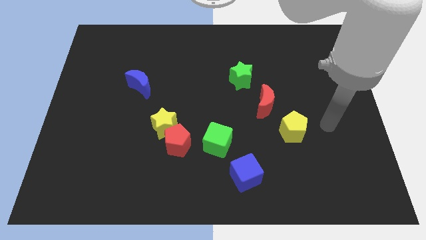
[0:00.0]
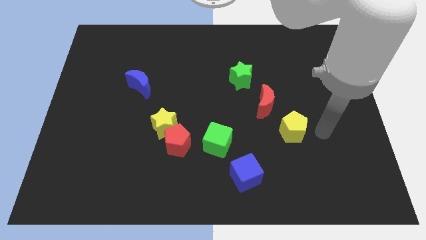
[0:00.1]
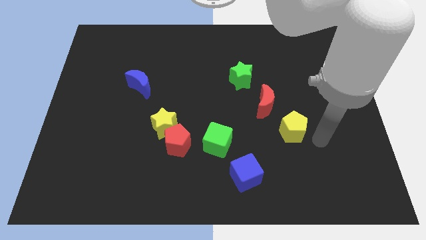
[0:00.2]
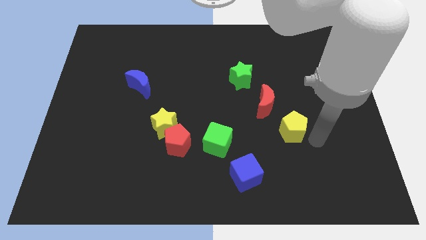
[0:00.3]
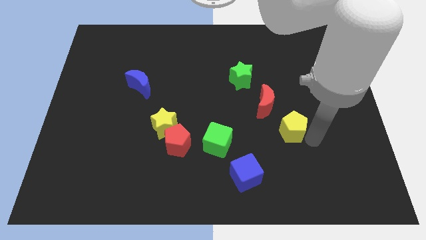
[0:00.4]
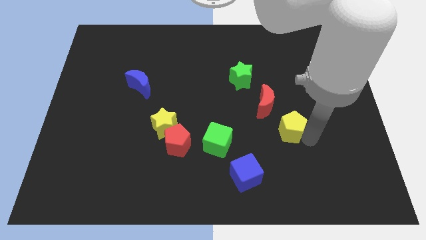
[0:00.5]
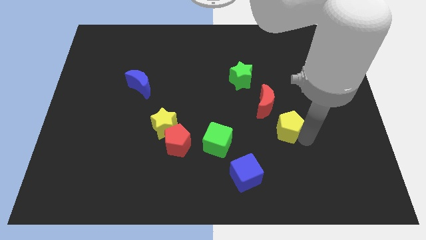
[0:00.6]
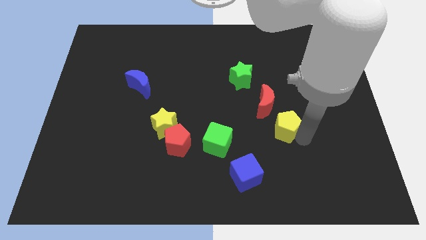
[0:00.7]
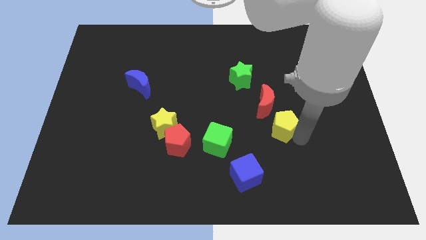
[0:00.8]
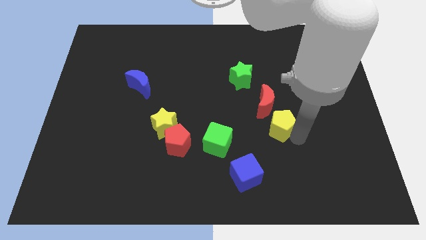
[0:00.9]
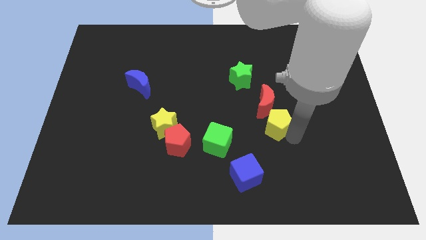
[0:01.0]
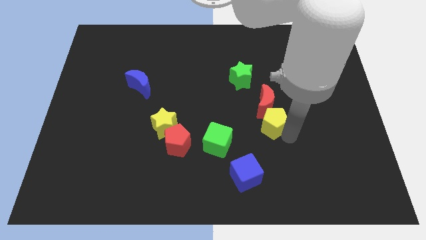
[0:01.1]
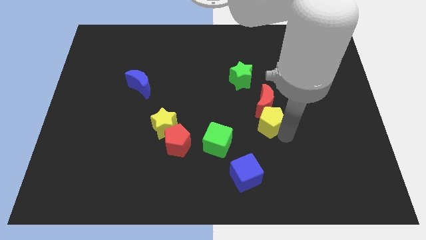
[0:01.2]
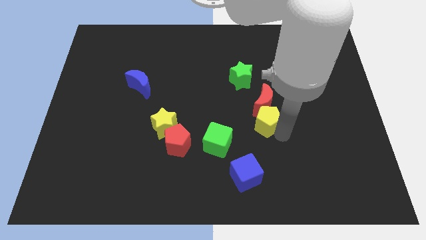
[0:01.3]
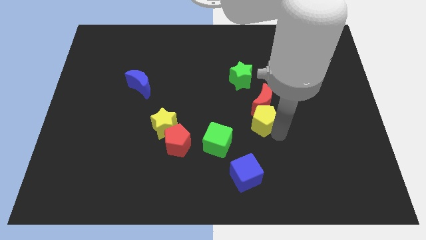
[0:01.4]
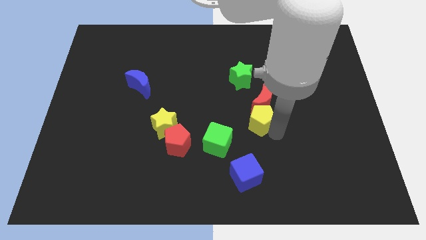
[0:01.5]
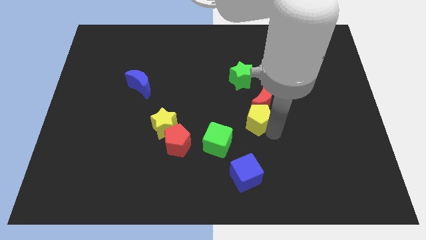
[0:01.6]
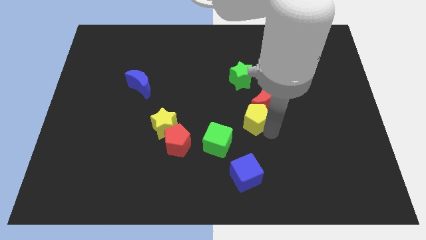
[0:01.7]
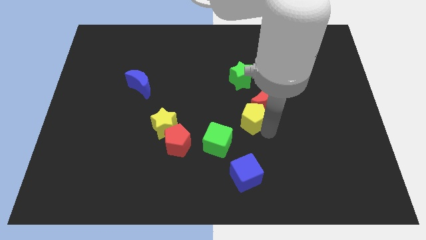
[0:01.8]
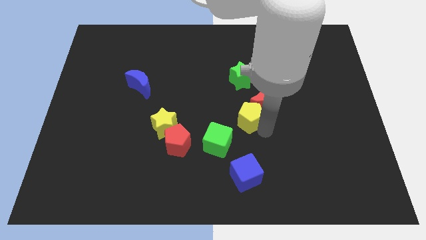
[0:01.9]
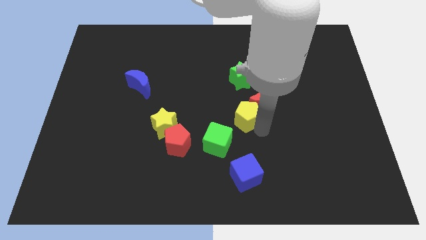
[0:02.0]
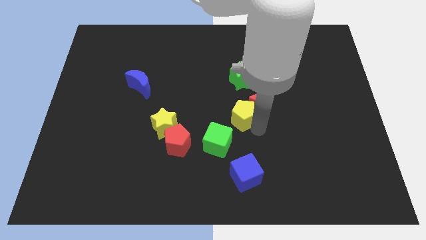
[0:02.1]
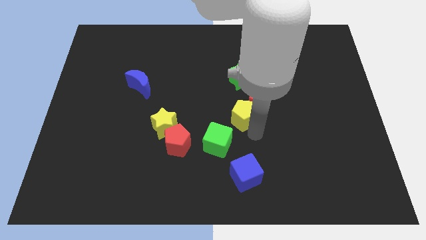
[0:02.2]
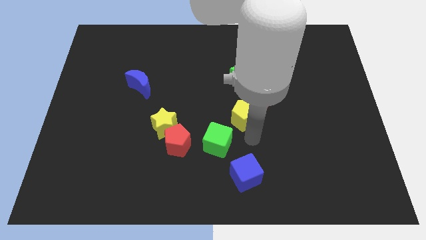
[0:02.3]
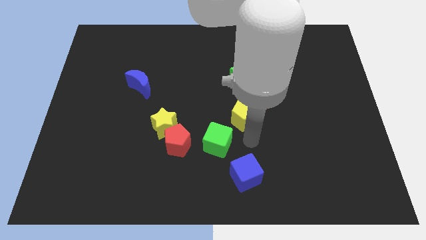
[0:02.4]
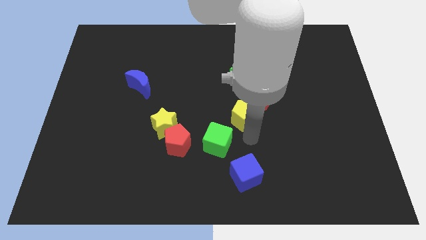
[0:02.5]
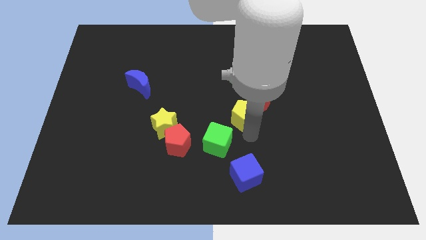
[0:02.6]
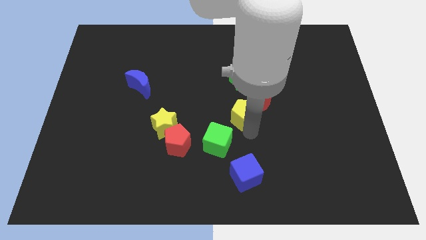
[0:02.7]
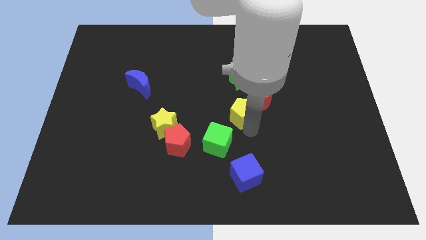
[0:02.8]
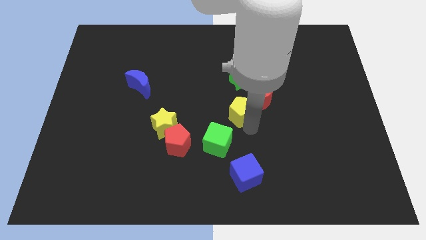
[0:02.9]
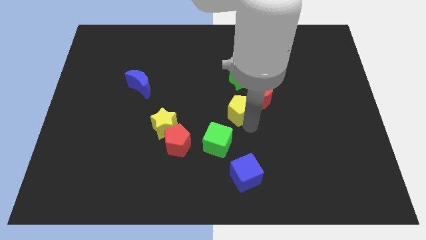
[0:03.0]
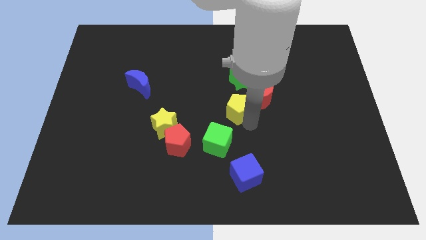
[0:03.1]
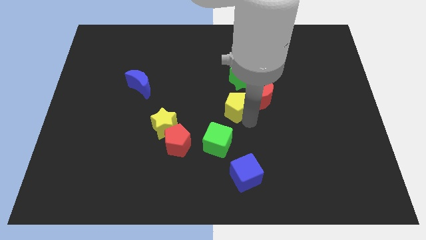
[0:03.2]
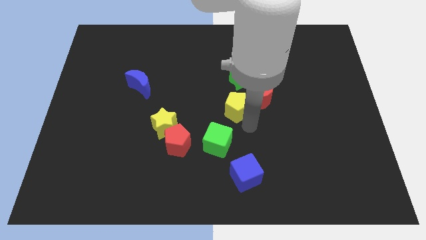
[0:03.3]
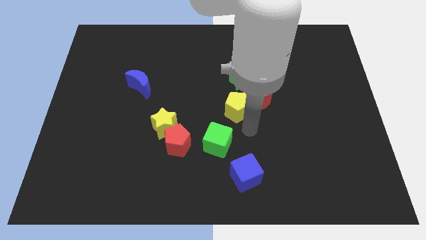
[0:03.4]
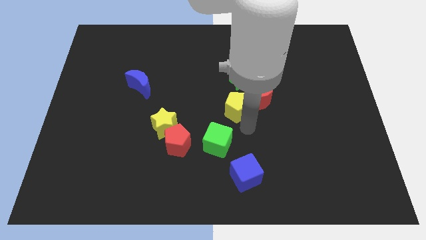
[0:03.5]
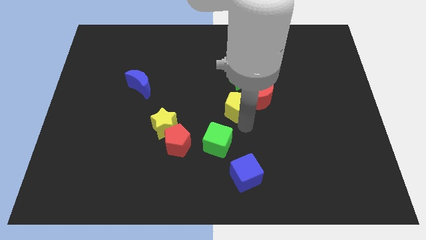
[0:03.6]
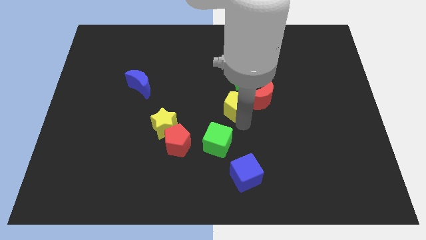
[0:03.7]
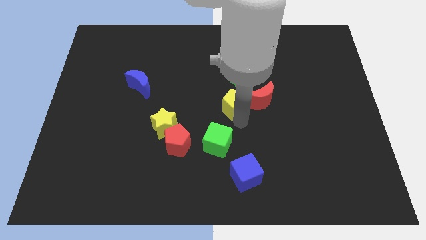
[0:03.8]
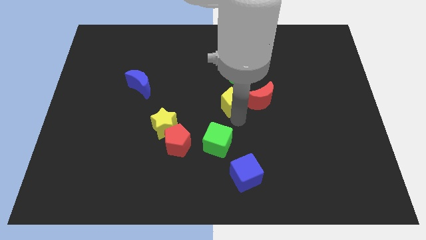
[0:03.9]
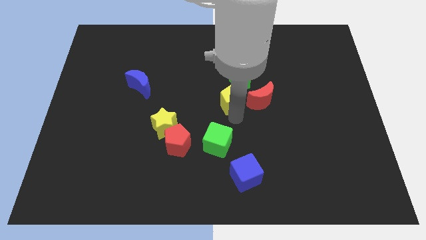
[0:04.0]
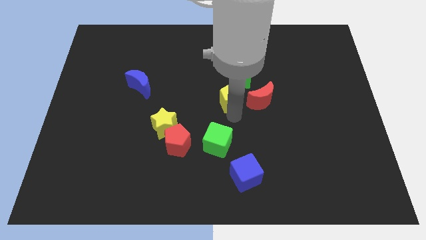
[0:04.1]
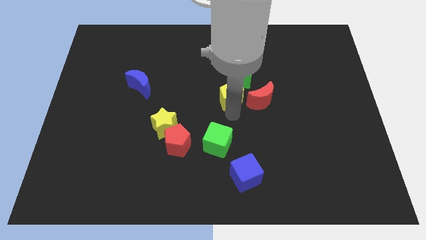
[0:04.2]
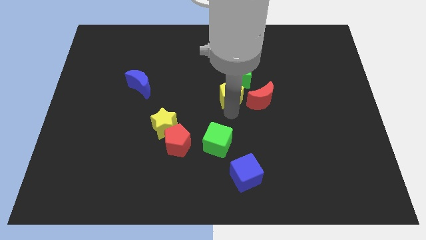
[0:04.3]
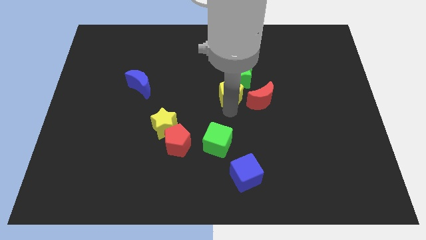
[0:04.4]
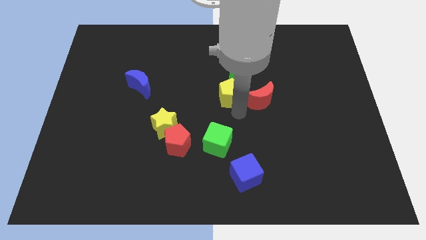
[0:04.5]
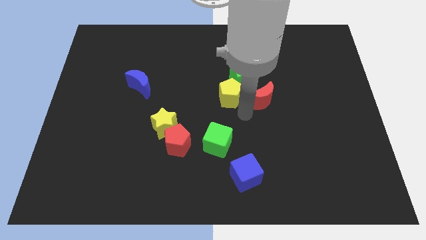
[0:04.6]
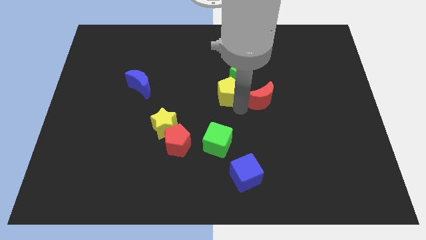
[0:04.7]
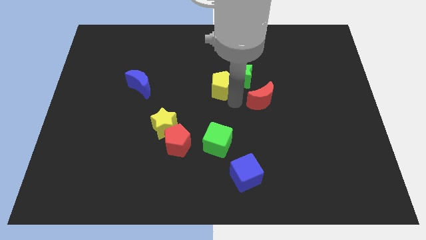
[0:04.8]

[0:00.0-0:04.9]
slide the yellow pentagon up and then to the left

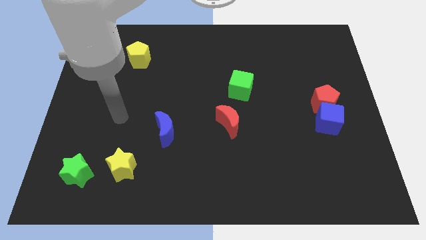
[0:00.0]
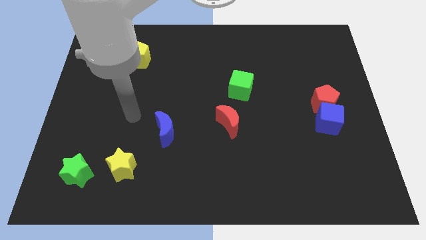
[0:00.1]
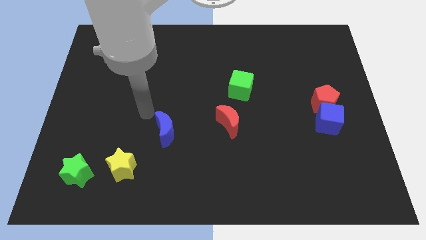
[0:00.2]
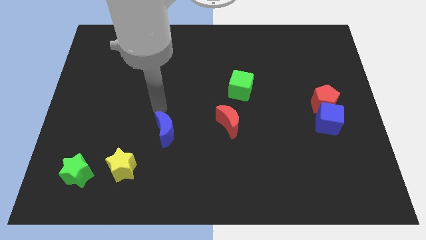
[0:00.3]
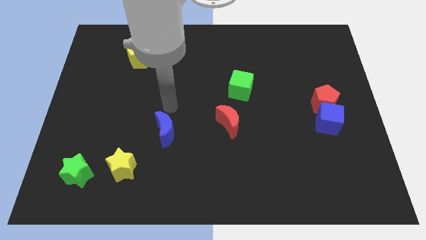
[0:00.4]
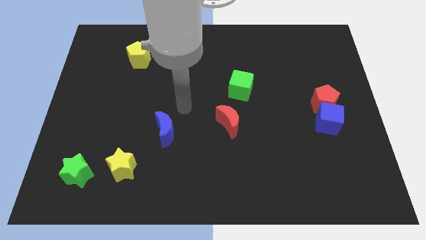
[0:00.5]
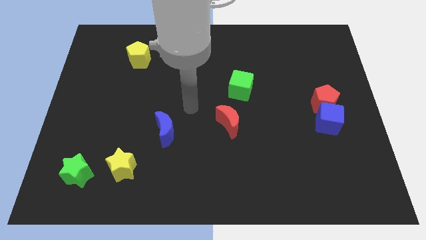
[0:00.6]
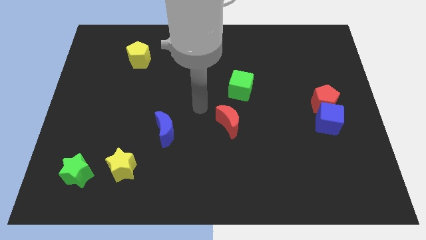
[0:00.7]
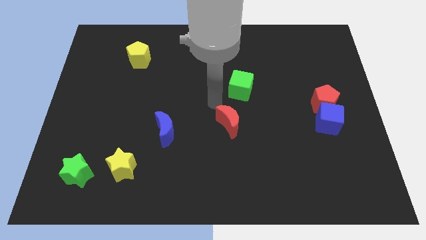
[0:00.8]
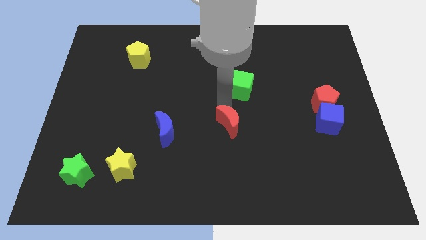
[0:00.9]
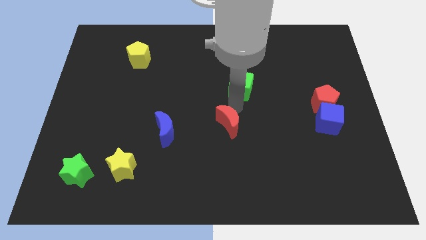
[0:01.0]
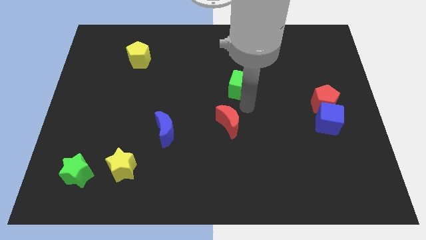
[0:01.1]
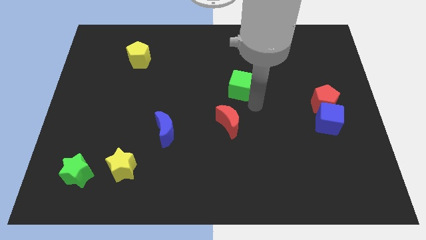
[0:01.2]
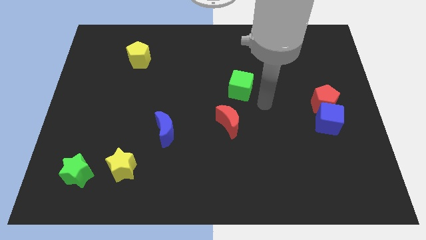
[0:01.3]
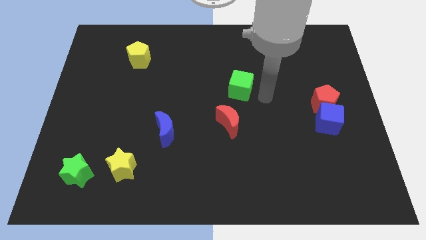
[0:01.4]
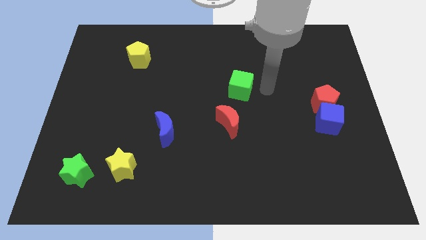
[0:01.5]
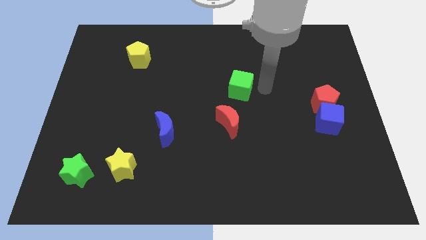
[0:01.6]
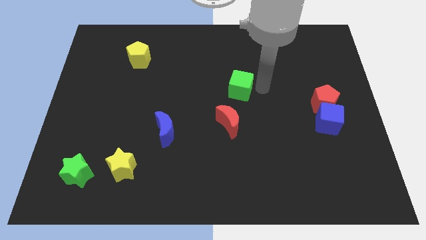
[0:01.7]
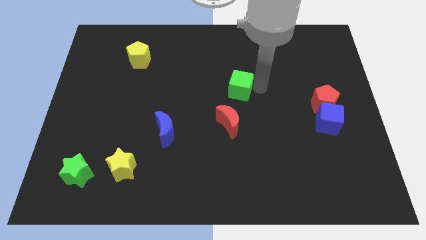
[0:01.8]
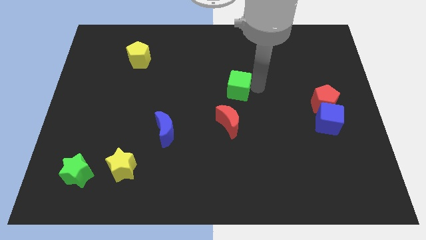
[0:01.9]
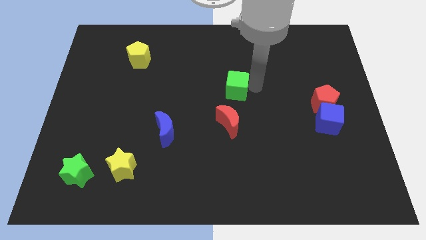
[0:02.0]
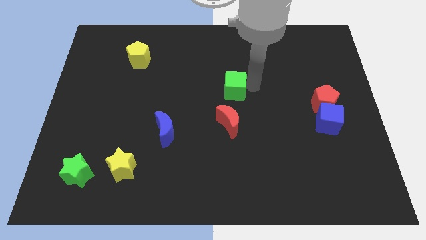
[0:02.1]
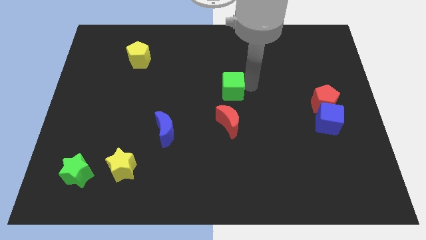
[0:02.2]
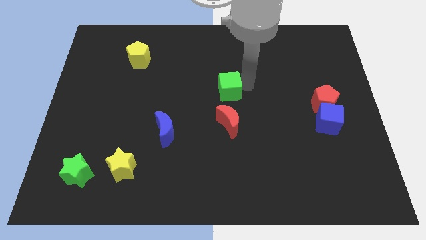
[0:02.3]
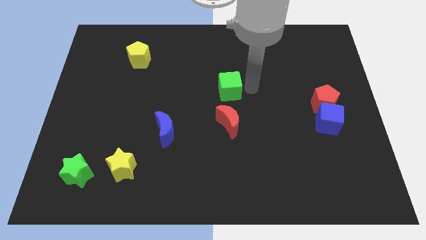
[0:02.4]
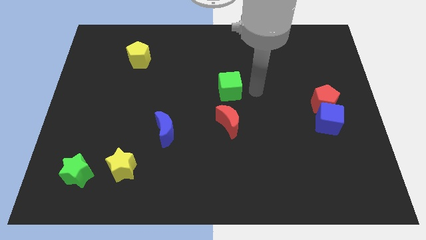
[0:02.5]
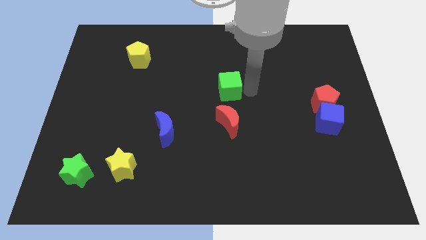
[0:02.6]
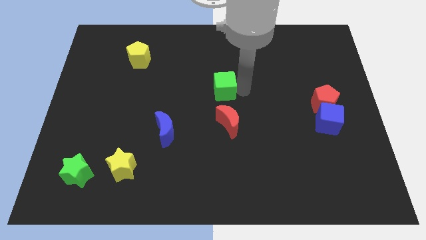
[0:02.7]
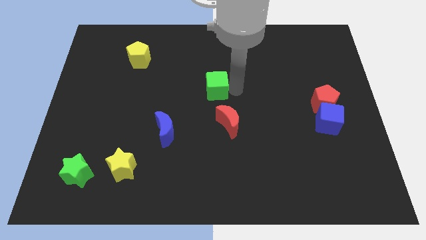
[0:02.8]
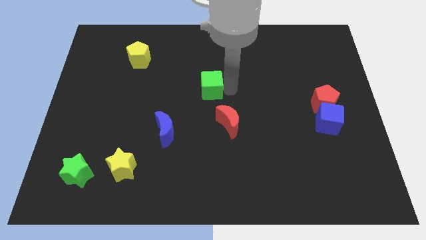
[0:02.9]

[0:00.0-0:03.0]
slide the green cube a little bit left
